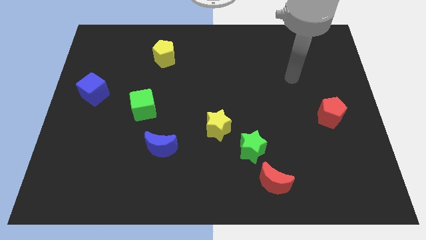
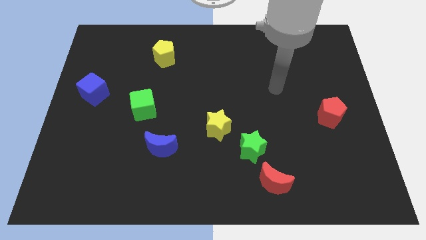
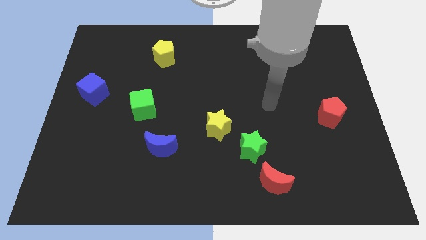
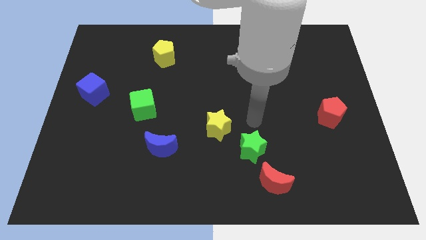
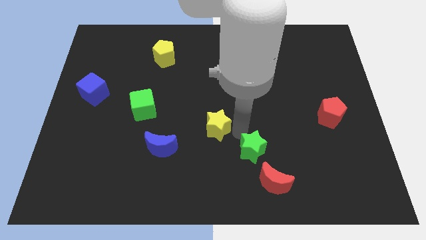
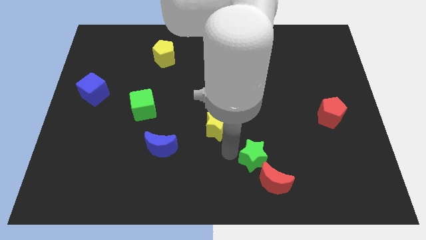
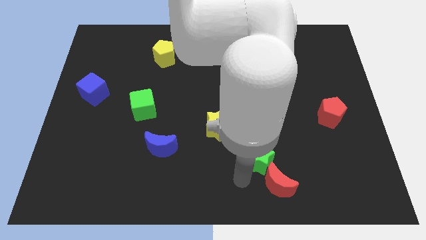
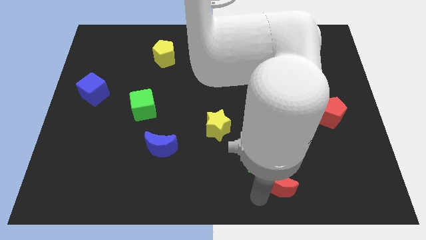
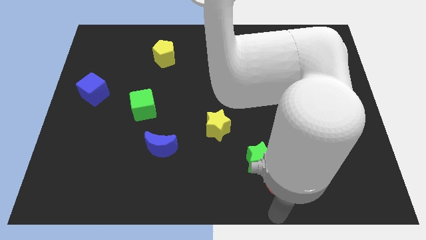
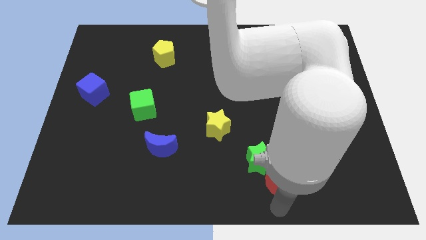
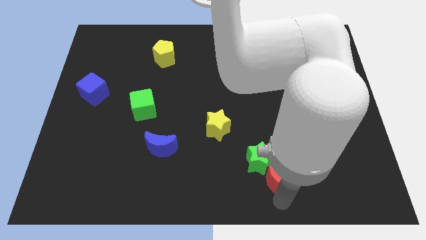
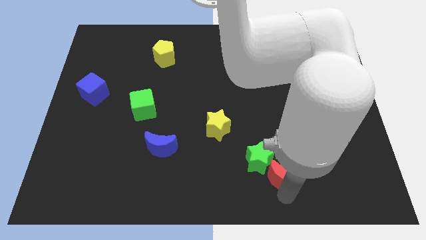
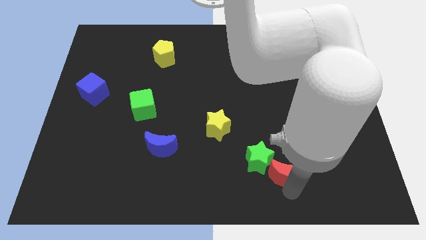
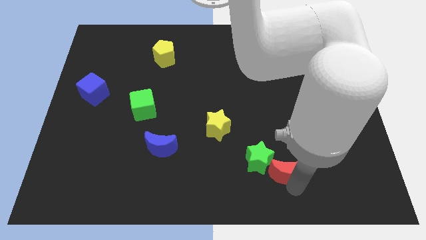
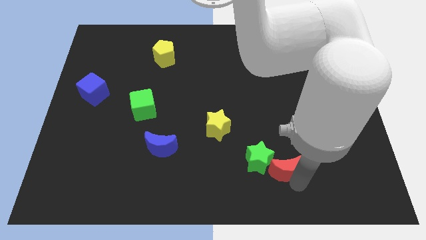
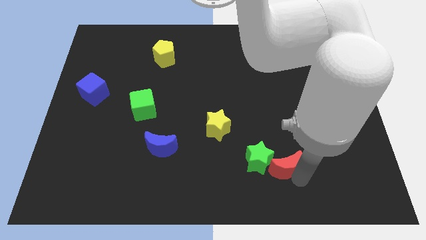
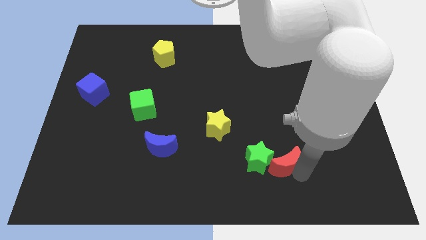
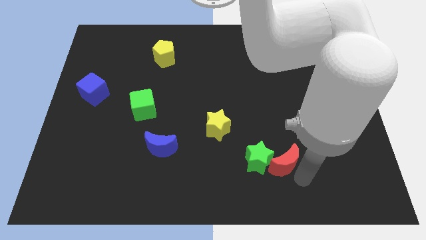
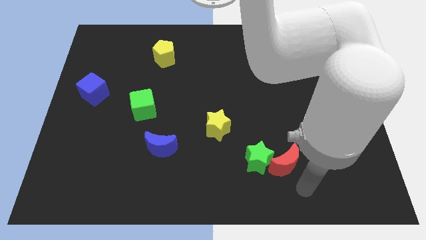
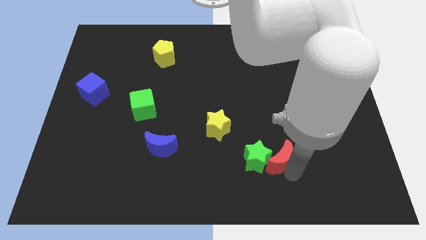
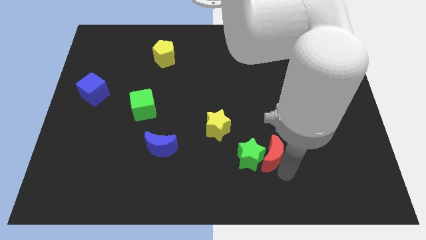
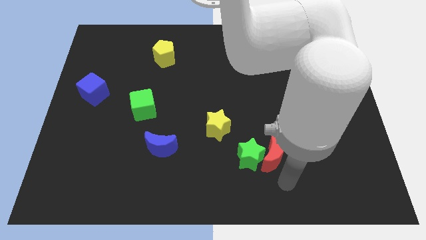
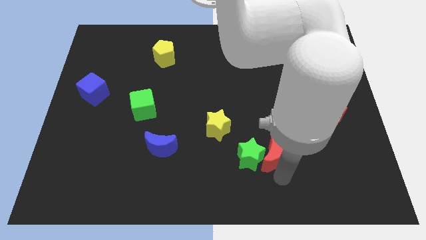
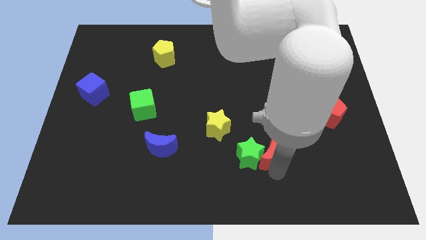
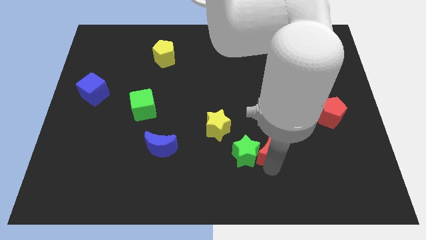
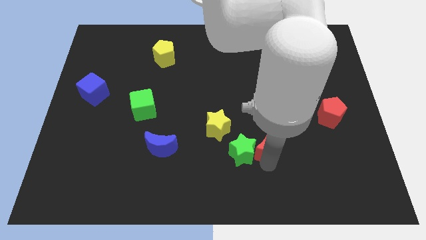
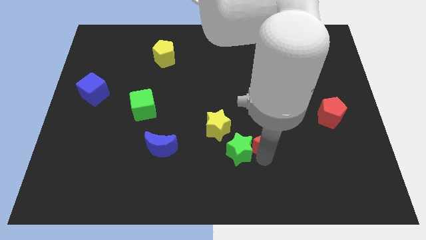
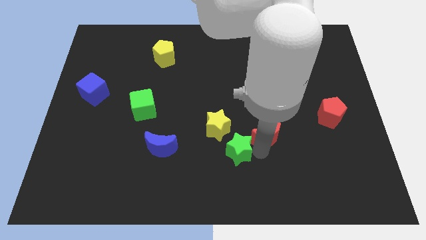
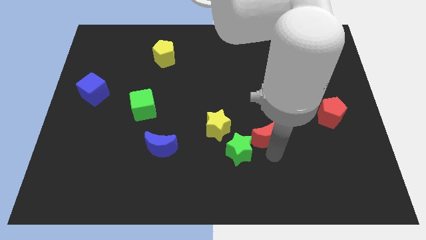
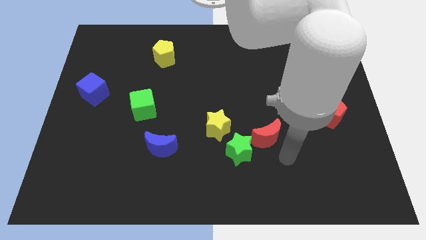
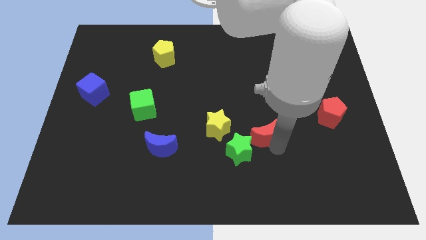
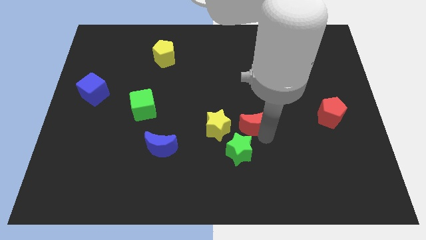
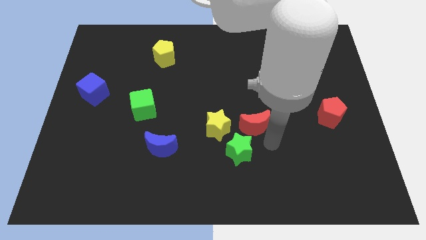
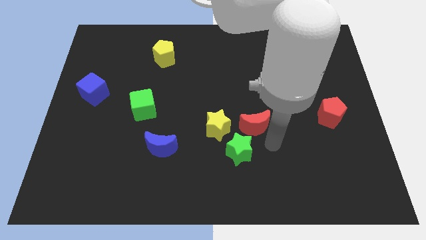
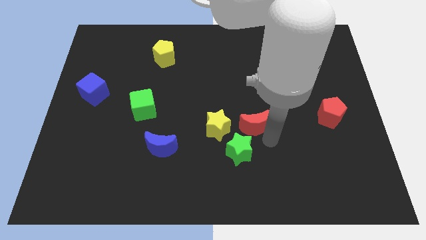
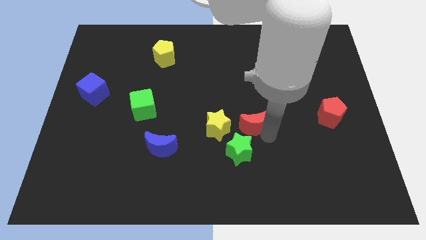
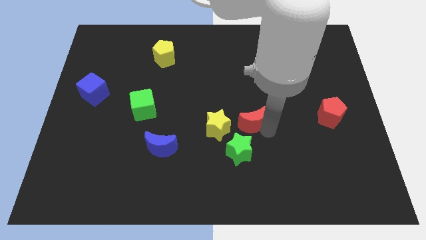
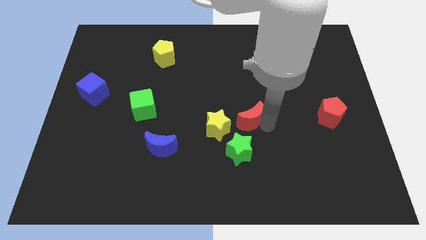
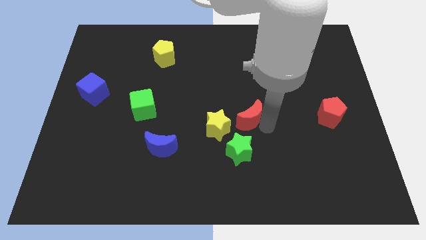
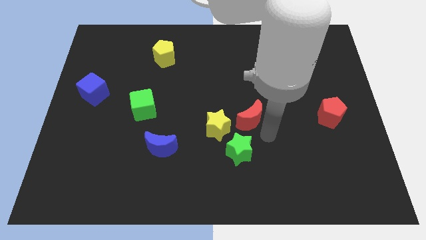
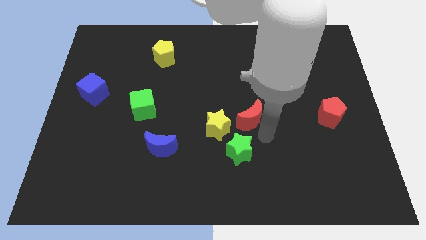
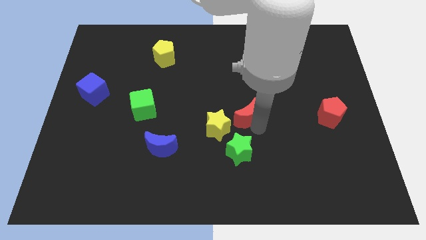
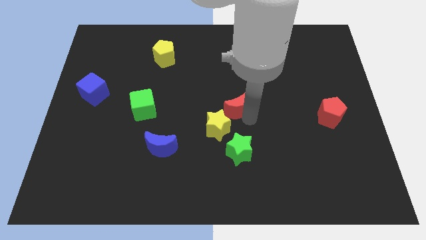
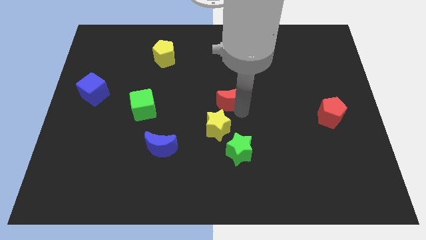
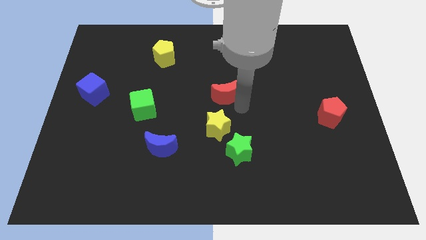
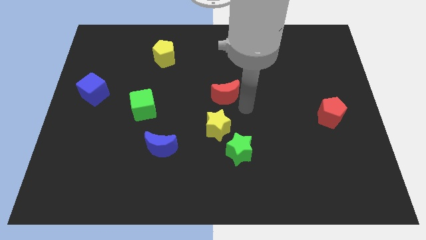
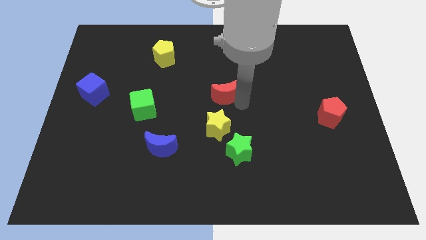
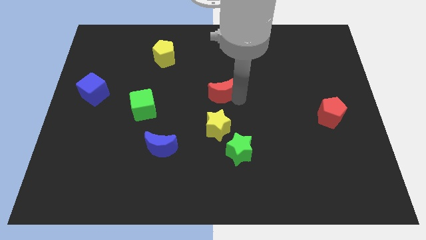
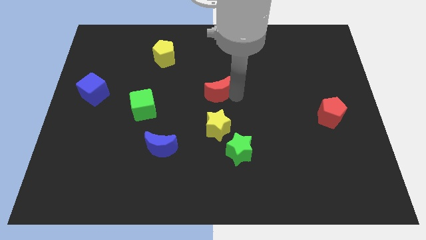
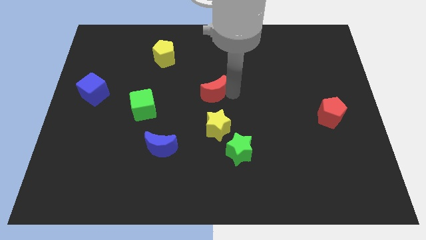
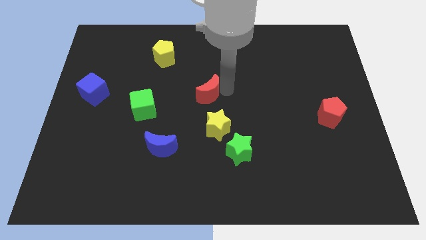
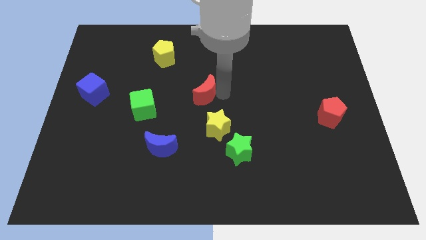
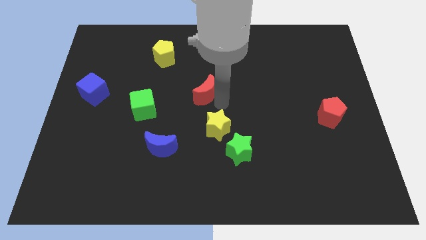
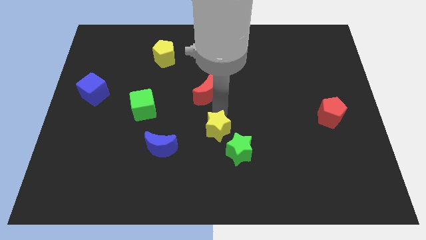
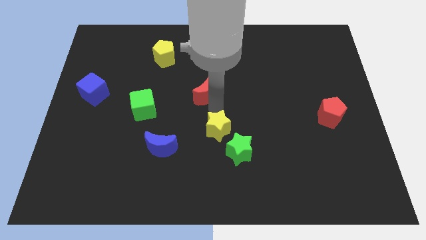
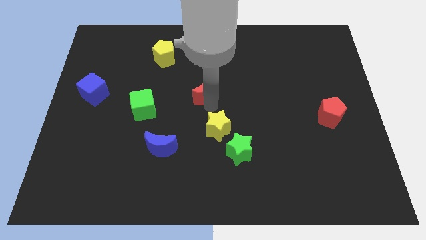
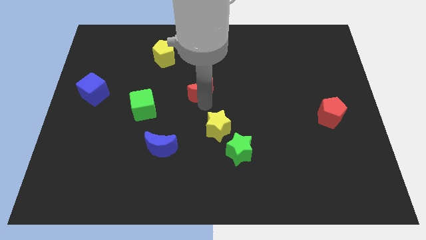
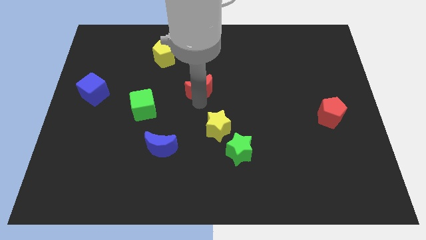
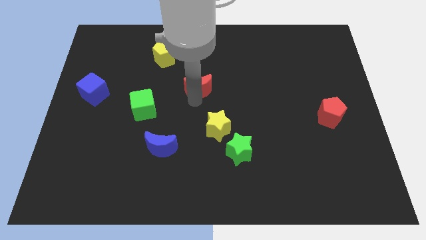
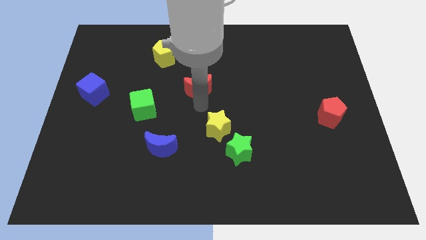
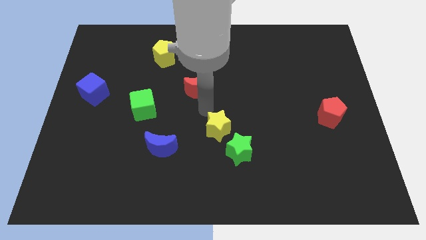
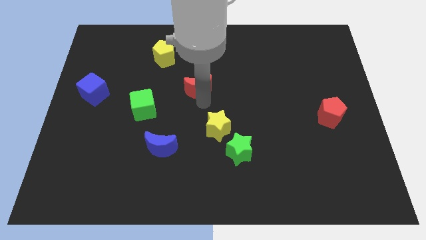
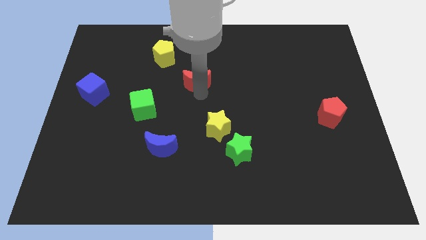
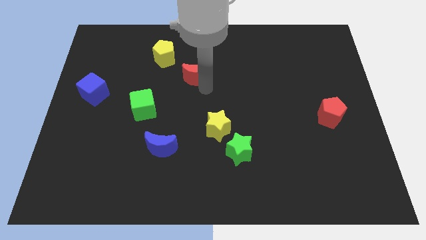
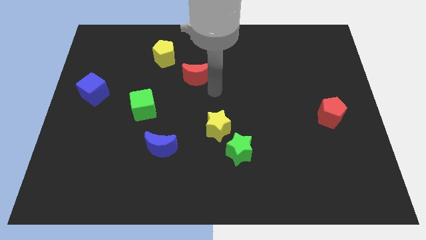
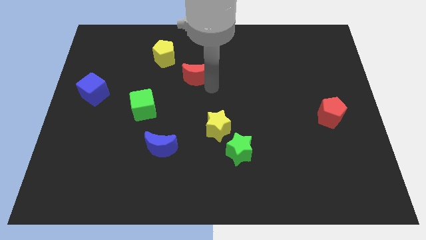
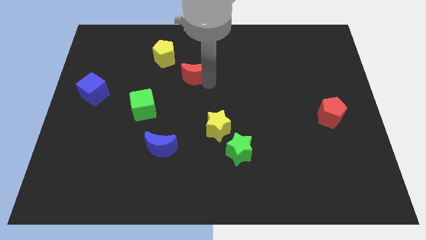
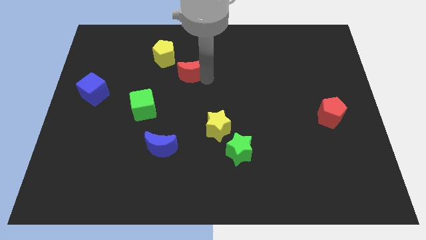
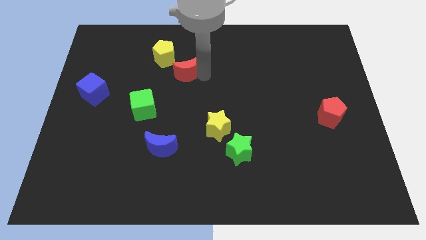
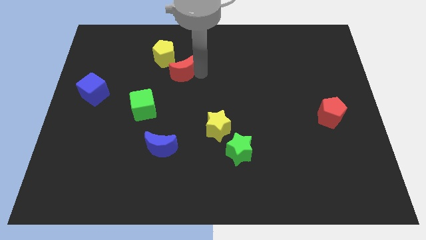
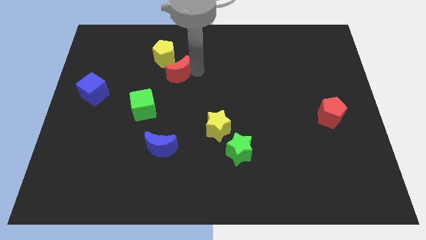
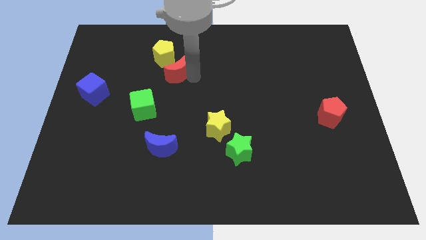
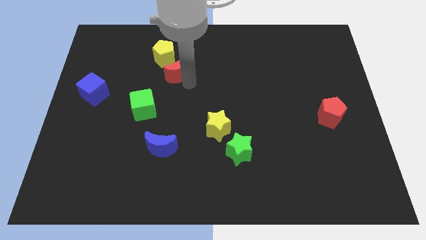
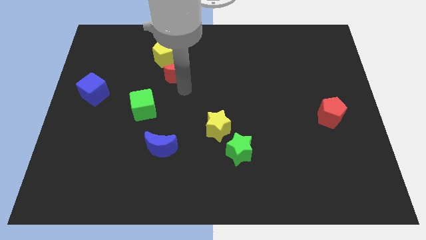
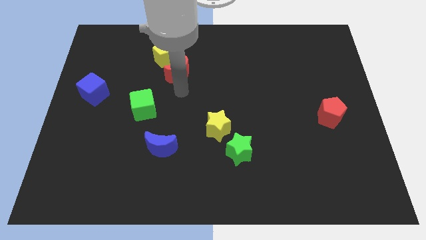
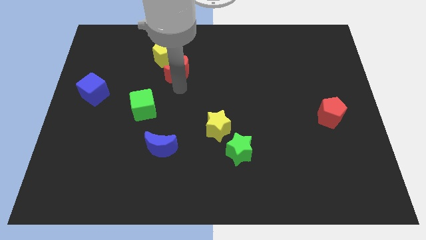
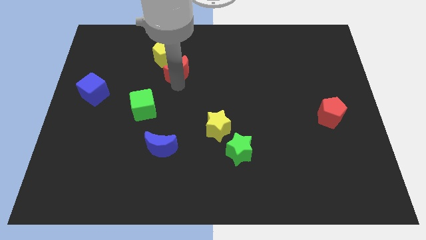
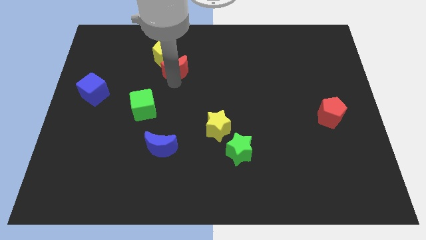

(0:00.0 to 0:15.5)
move the red moon towards the yellow pentagon
